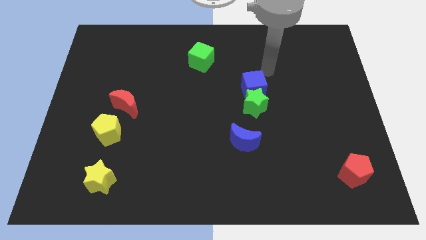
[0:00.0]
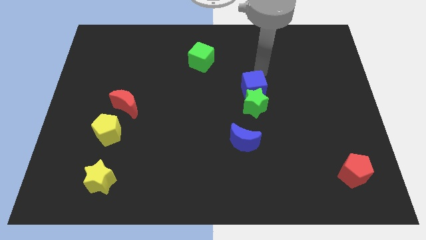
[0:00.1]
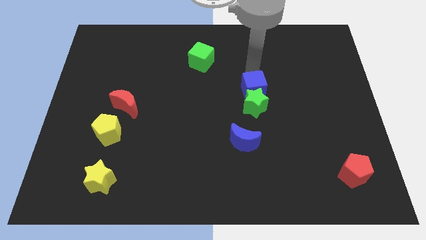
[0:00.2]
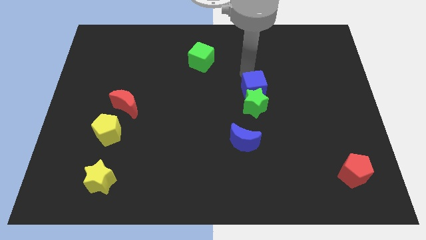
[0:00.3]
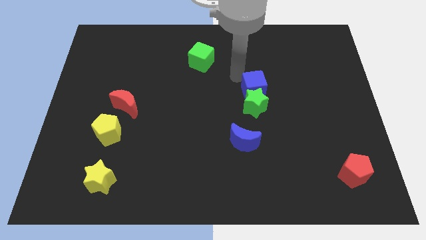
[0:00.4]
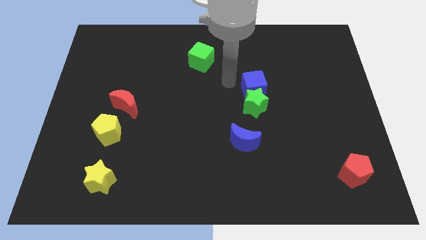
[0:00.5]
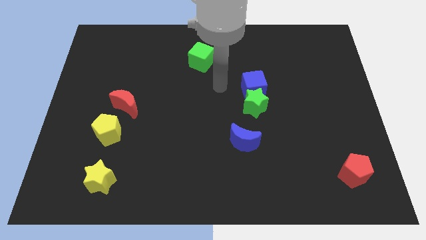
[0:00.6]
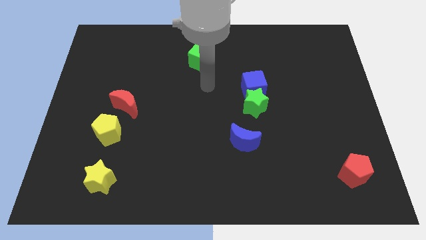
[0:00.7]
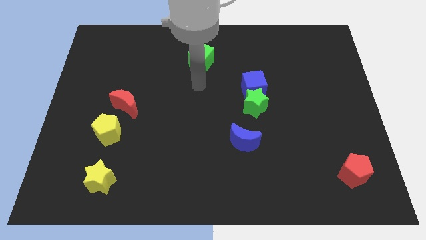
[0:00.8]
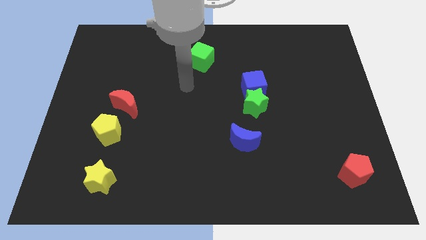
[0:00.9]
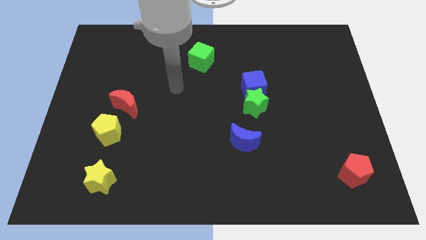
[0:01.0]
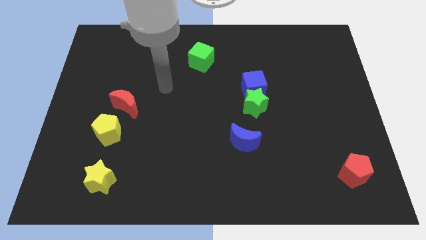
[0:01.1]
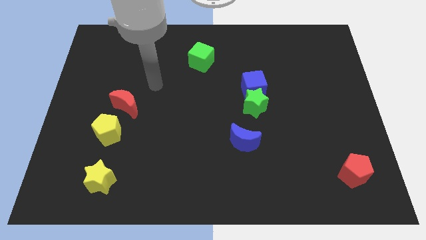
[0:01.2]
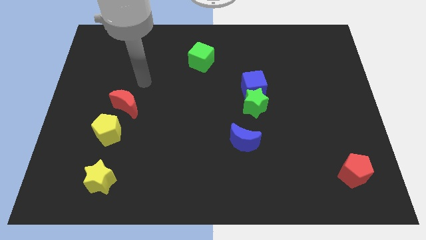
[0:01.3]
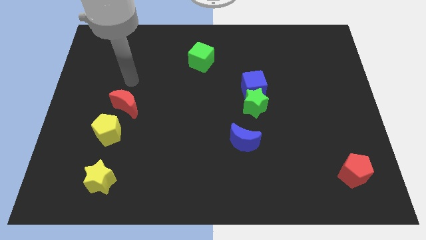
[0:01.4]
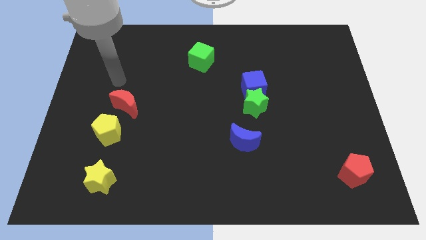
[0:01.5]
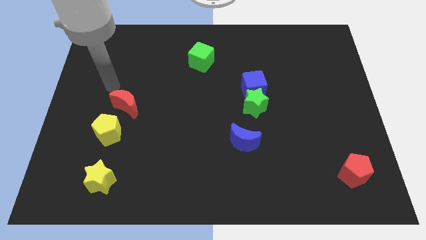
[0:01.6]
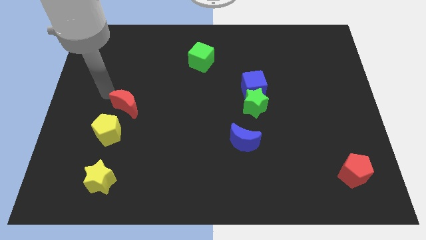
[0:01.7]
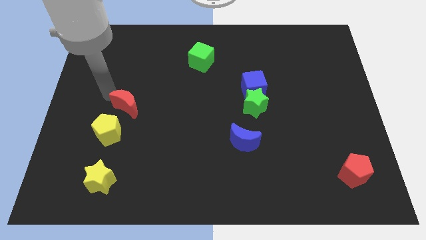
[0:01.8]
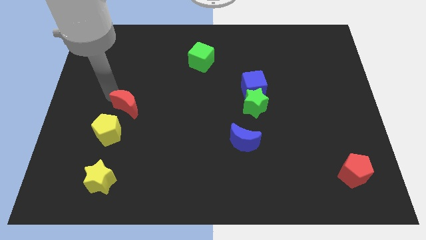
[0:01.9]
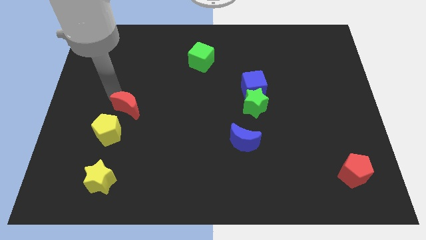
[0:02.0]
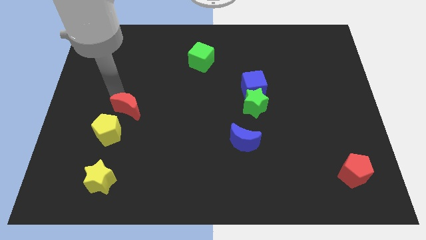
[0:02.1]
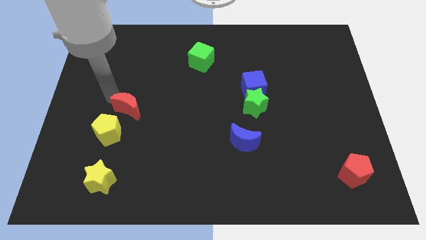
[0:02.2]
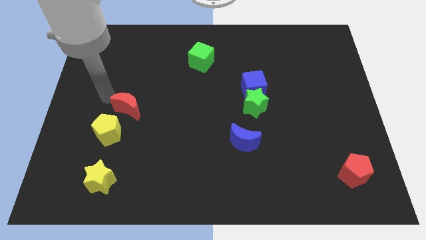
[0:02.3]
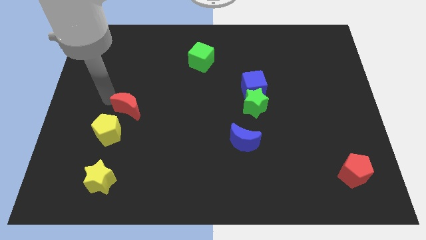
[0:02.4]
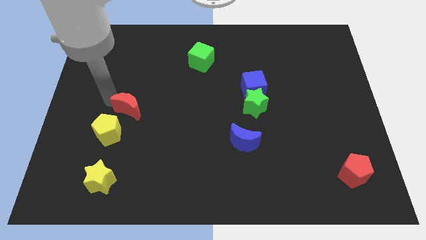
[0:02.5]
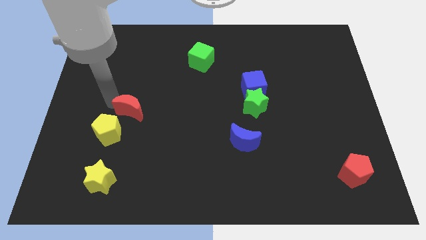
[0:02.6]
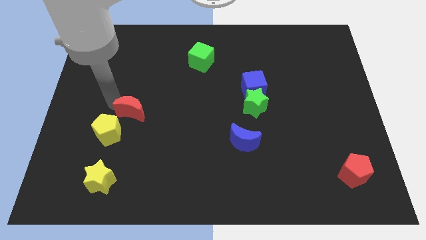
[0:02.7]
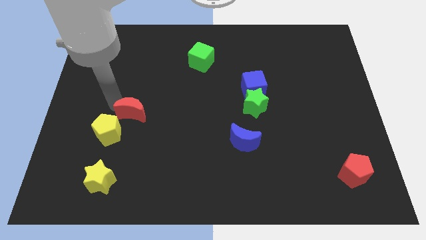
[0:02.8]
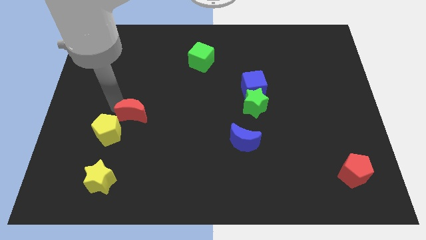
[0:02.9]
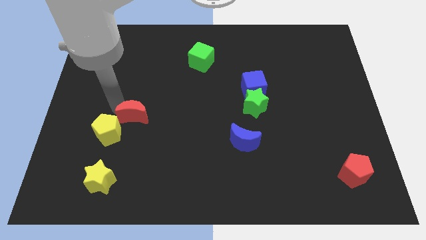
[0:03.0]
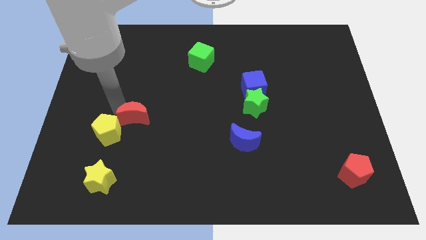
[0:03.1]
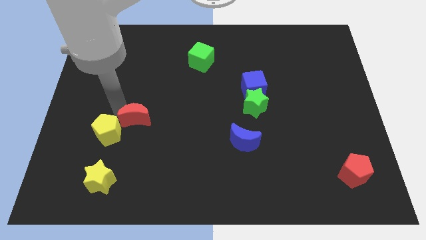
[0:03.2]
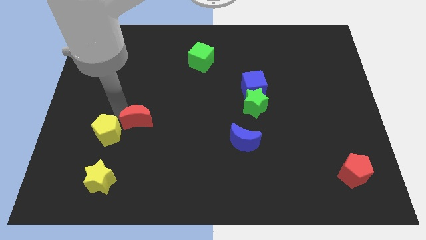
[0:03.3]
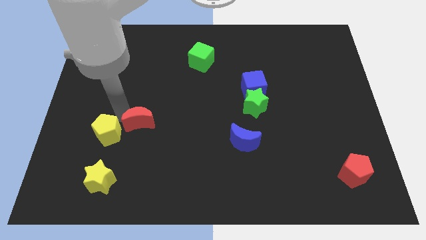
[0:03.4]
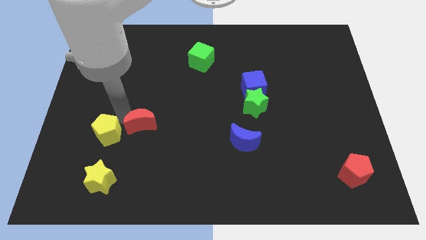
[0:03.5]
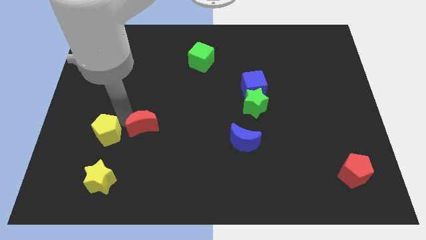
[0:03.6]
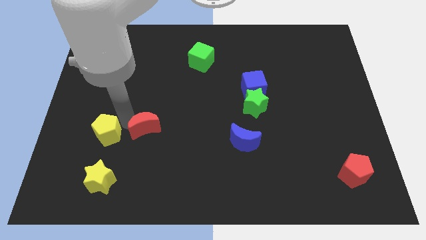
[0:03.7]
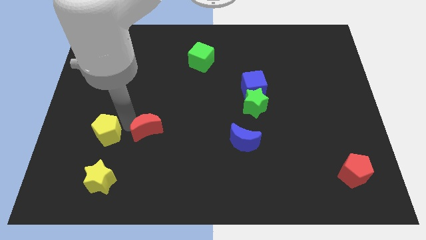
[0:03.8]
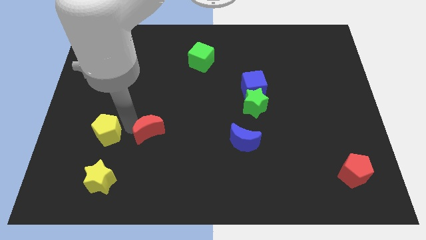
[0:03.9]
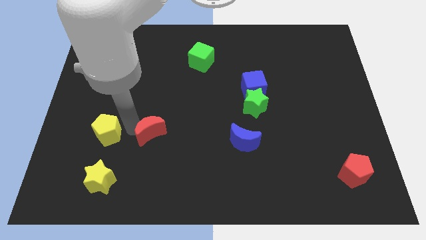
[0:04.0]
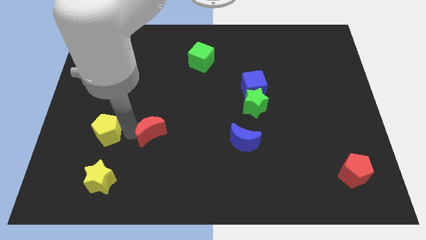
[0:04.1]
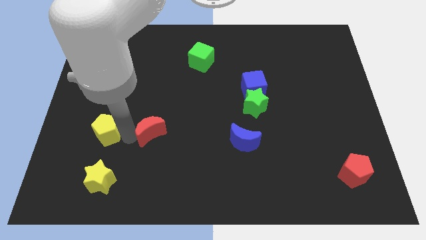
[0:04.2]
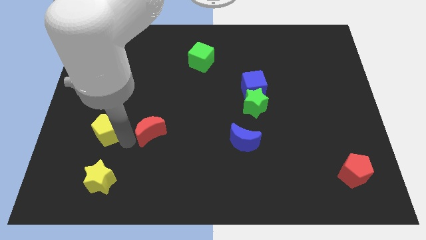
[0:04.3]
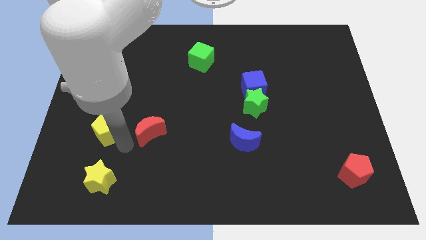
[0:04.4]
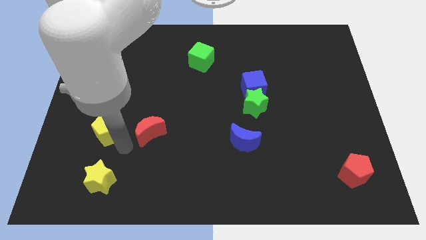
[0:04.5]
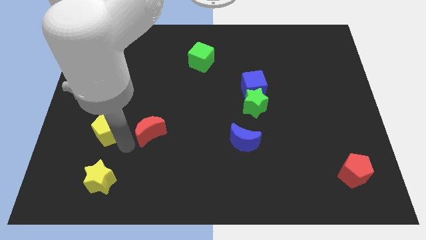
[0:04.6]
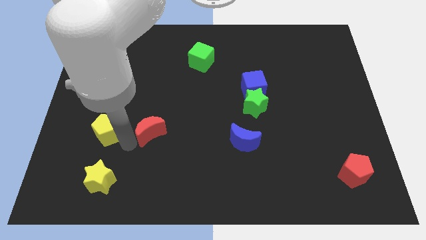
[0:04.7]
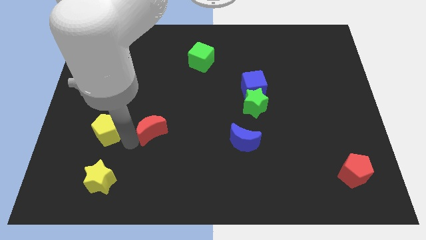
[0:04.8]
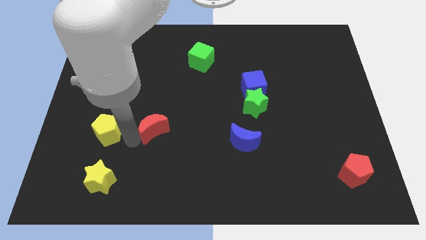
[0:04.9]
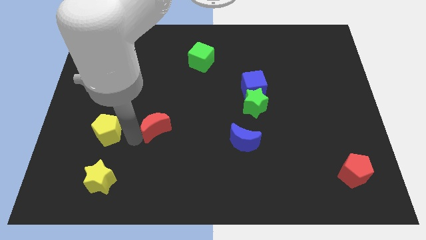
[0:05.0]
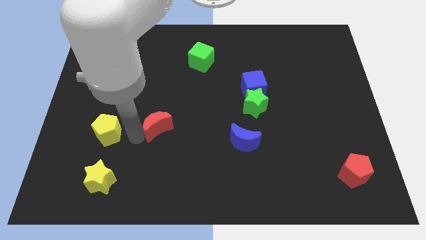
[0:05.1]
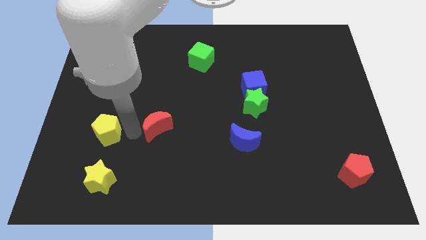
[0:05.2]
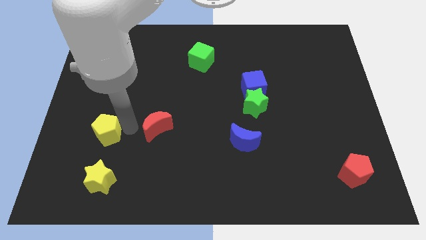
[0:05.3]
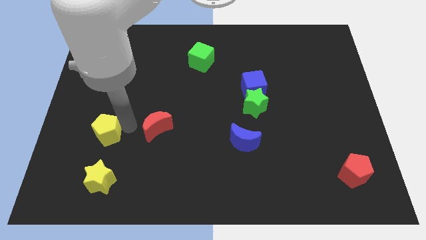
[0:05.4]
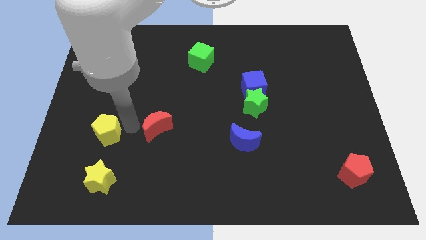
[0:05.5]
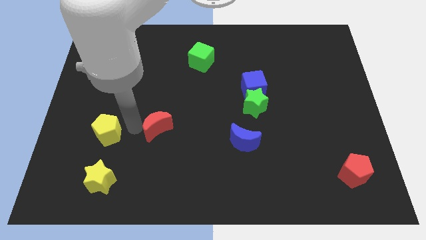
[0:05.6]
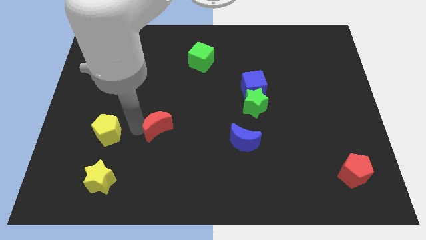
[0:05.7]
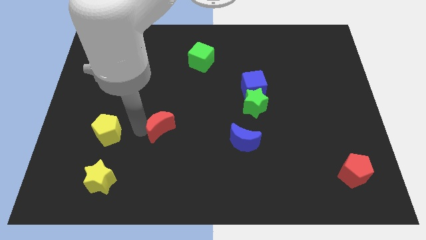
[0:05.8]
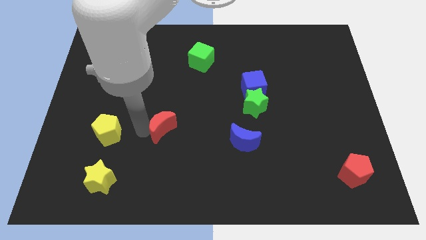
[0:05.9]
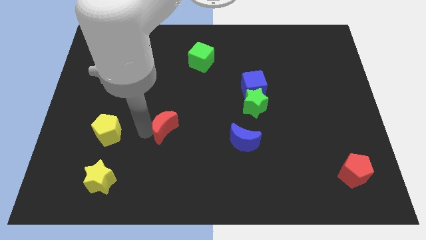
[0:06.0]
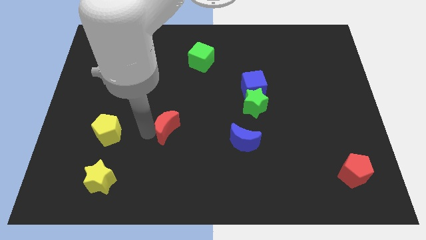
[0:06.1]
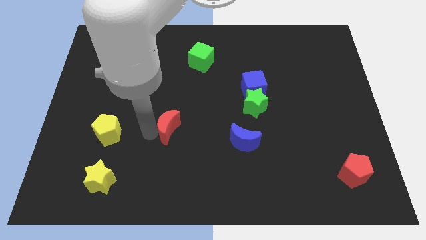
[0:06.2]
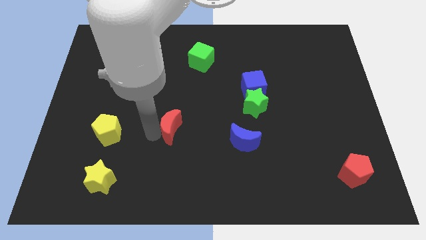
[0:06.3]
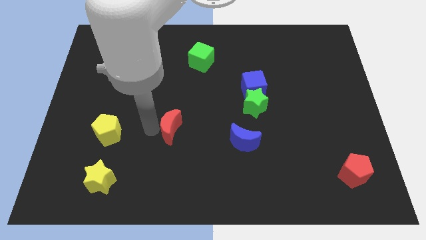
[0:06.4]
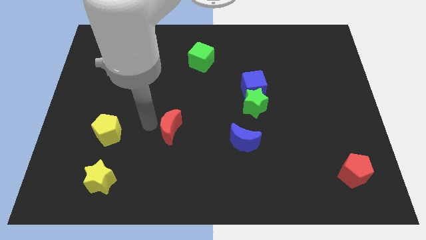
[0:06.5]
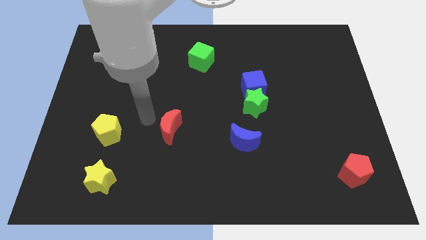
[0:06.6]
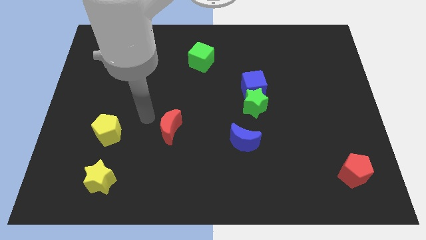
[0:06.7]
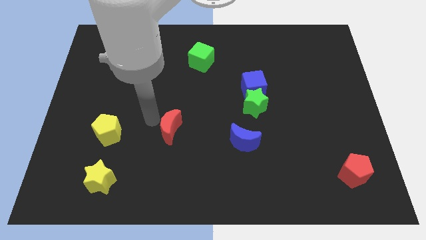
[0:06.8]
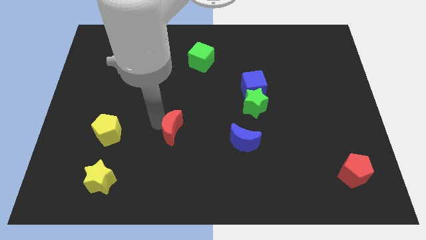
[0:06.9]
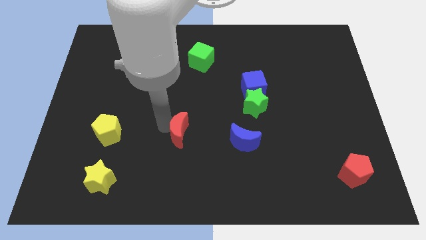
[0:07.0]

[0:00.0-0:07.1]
slide the red moon to the left of the blue moon
